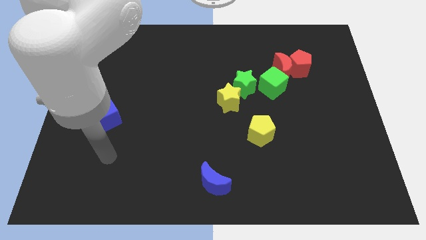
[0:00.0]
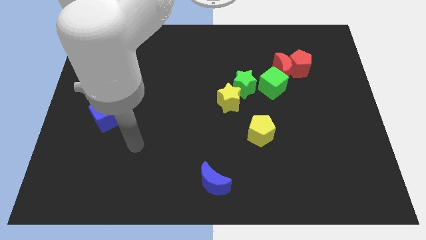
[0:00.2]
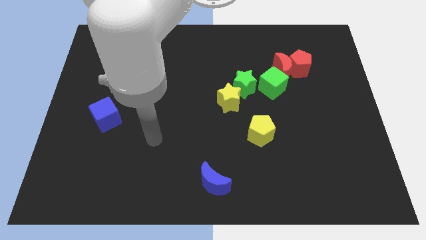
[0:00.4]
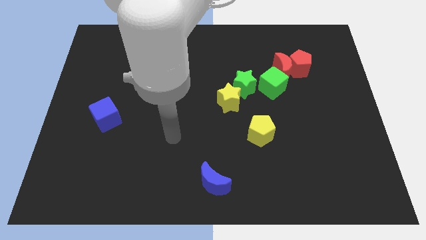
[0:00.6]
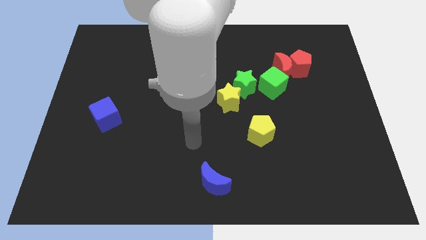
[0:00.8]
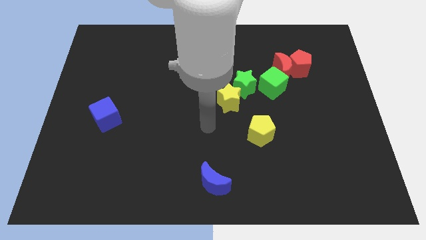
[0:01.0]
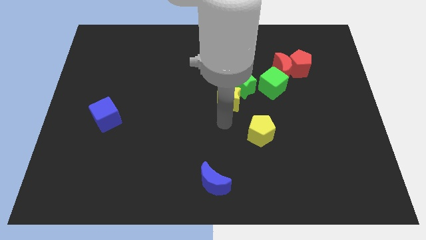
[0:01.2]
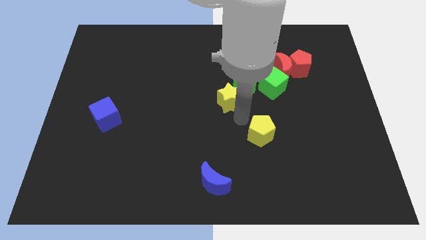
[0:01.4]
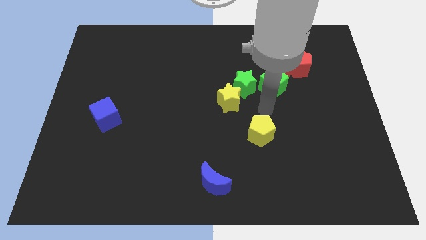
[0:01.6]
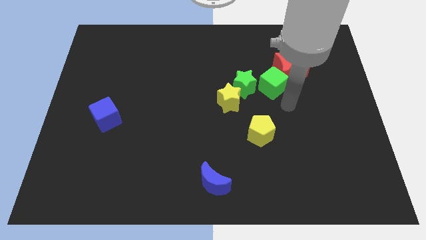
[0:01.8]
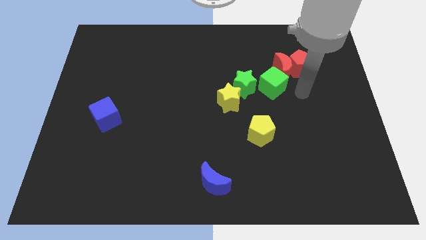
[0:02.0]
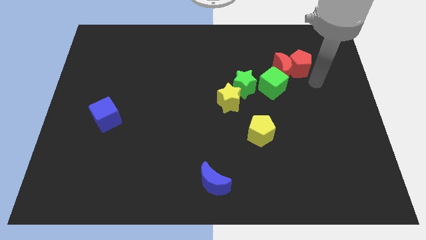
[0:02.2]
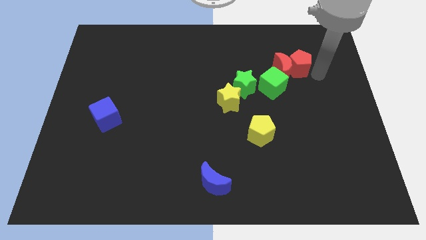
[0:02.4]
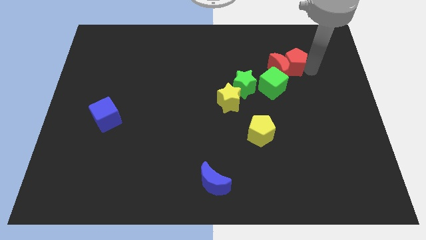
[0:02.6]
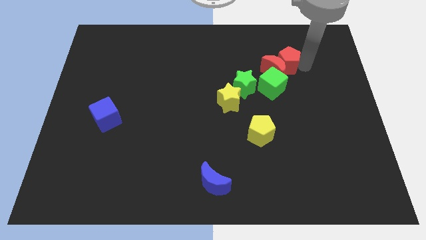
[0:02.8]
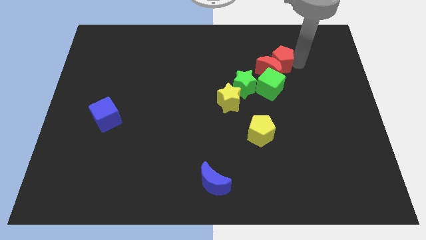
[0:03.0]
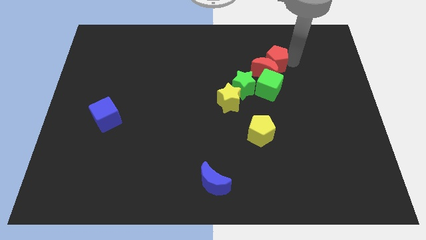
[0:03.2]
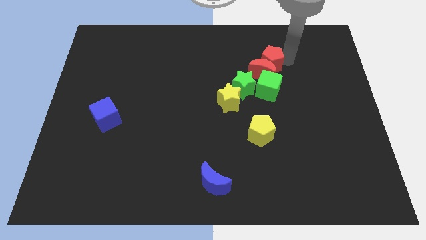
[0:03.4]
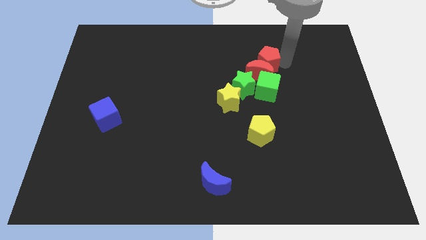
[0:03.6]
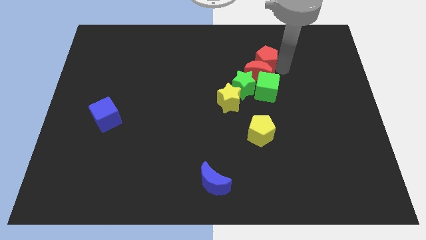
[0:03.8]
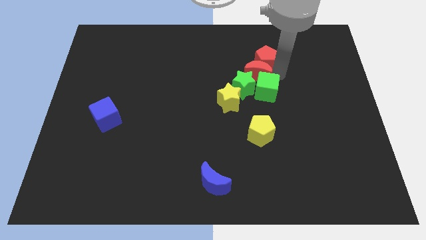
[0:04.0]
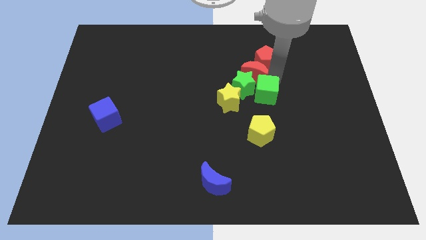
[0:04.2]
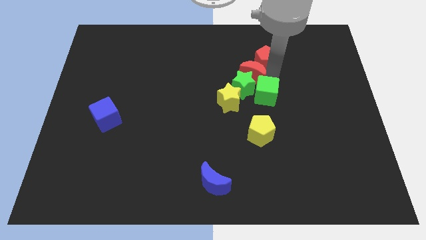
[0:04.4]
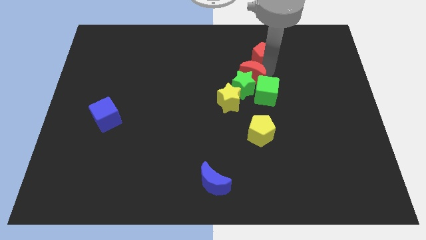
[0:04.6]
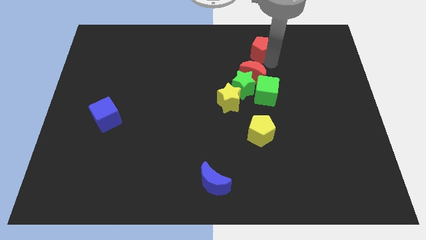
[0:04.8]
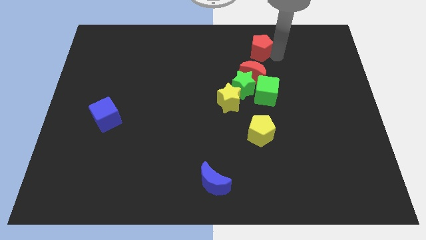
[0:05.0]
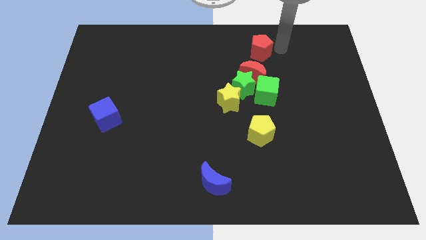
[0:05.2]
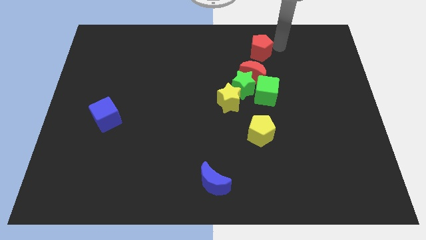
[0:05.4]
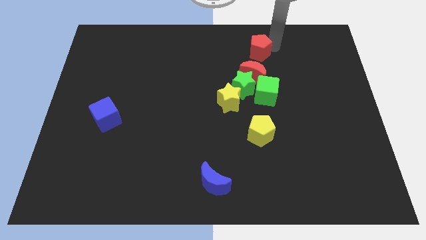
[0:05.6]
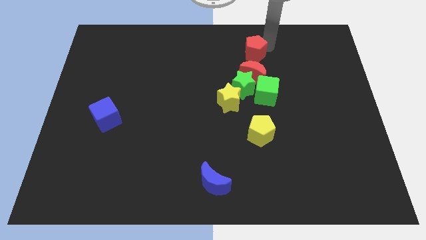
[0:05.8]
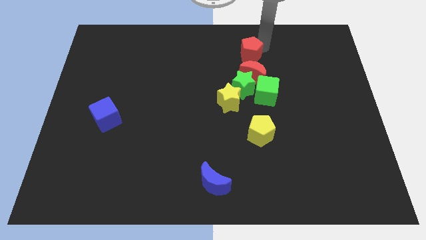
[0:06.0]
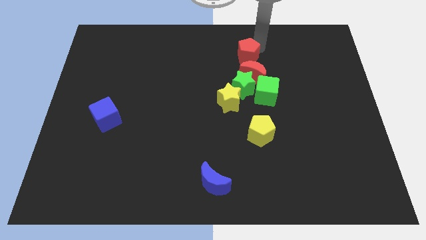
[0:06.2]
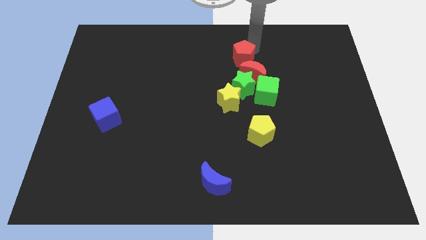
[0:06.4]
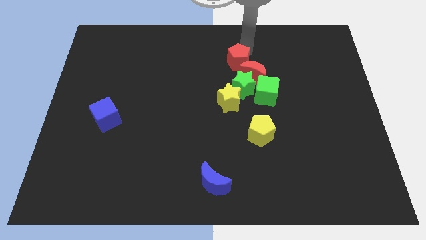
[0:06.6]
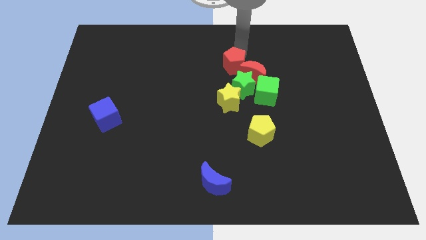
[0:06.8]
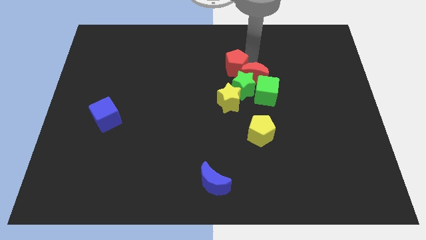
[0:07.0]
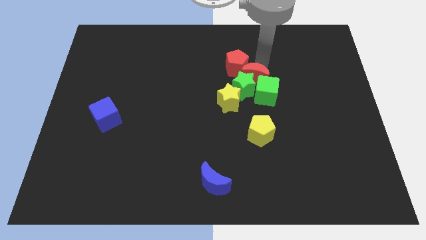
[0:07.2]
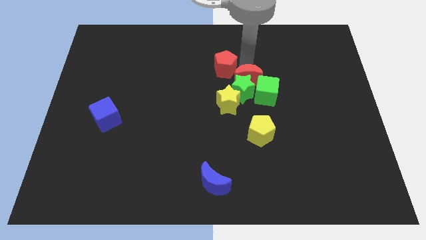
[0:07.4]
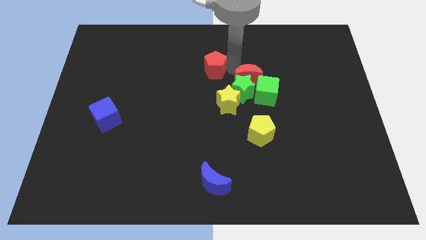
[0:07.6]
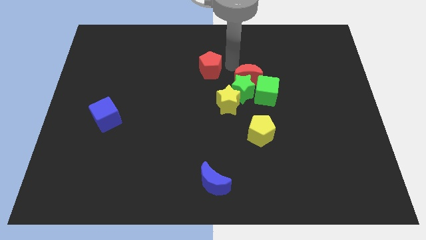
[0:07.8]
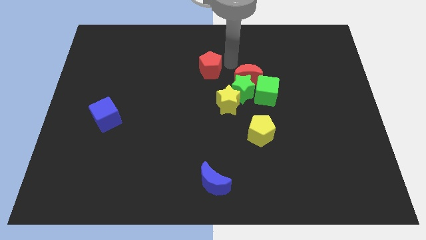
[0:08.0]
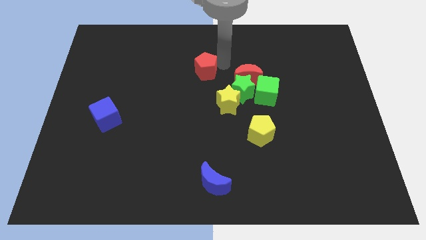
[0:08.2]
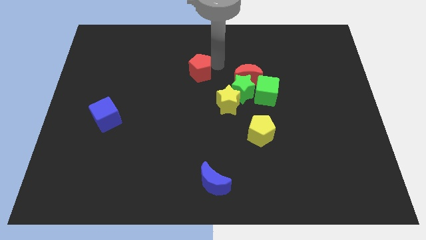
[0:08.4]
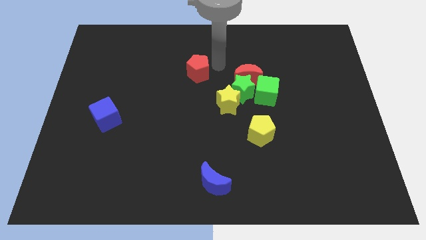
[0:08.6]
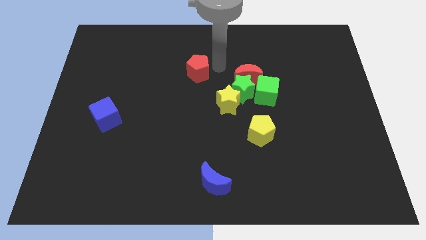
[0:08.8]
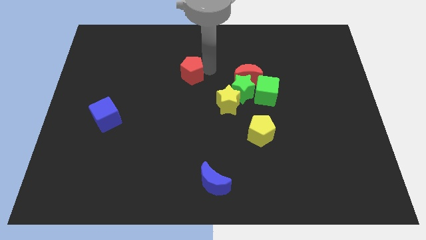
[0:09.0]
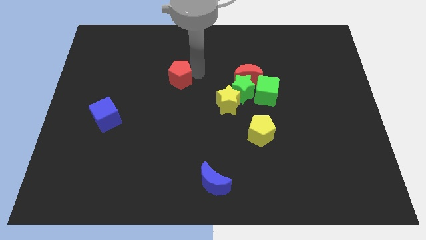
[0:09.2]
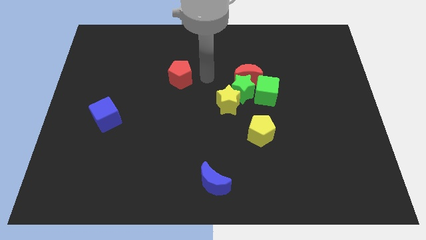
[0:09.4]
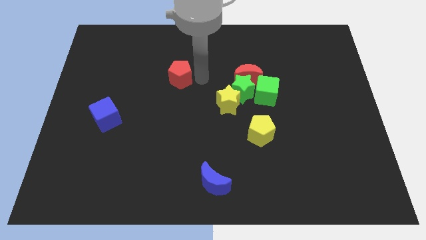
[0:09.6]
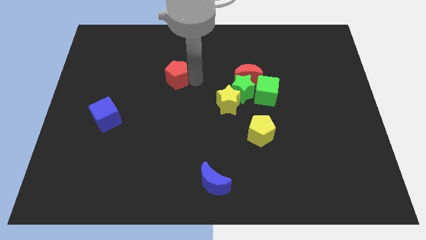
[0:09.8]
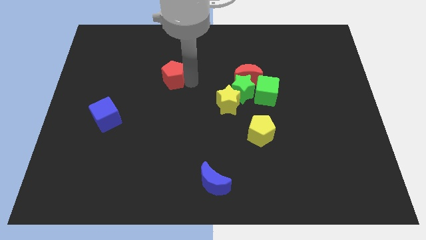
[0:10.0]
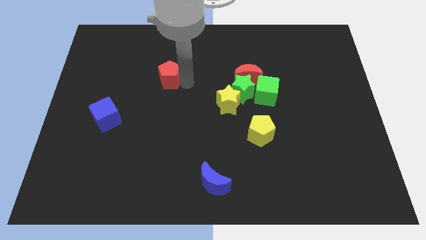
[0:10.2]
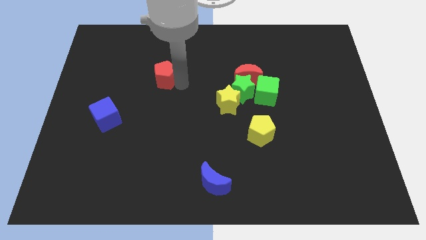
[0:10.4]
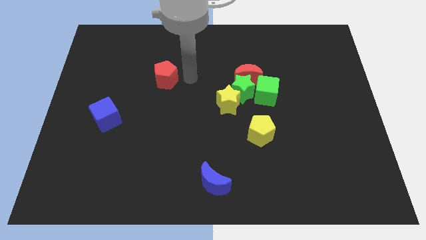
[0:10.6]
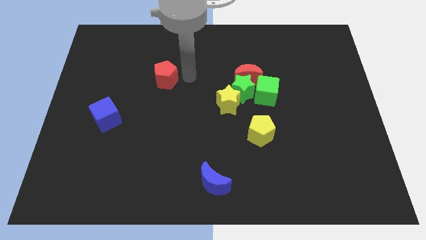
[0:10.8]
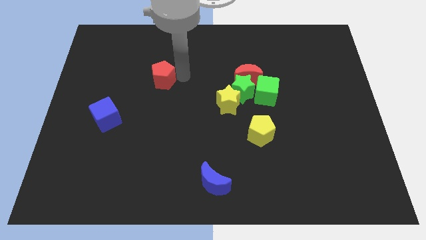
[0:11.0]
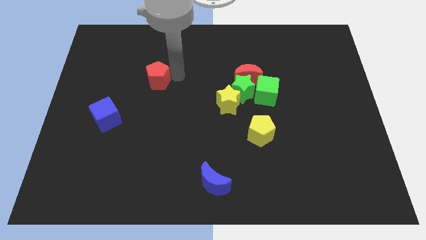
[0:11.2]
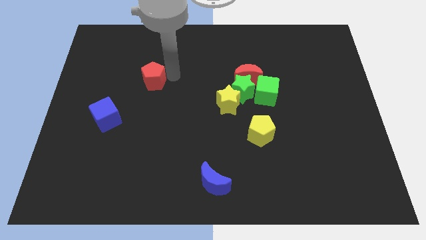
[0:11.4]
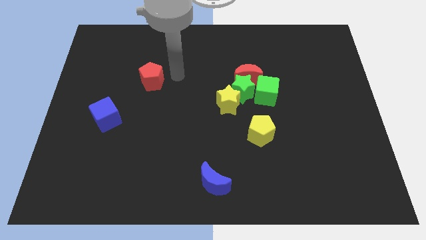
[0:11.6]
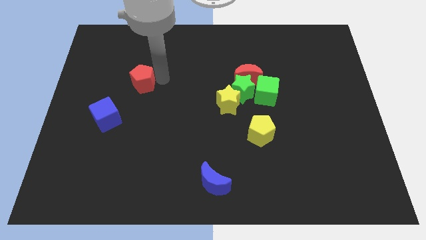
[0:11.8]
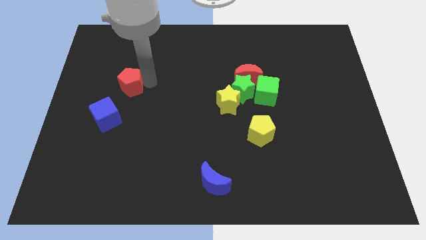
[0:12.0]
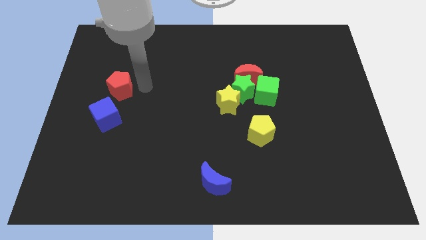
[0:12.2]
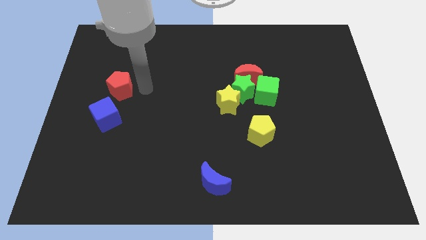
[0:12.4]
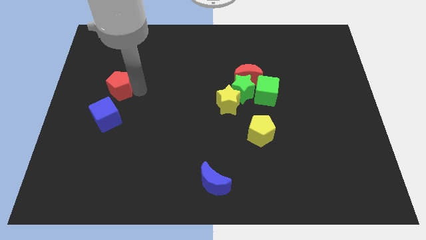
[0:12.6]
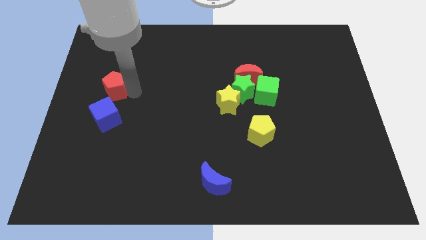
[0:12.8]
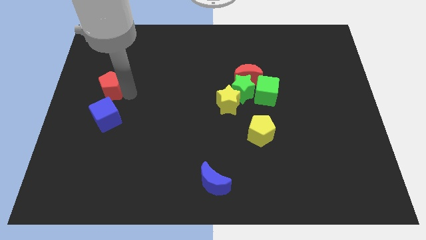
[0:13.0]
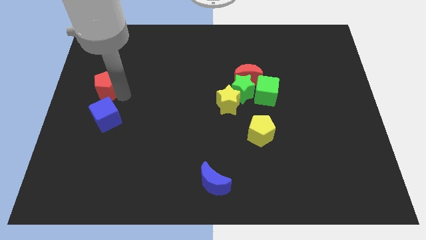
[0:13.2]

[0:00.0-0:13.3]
slide the red pentagon to the left side of the board
